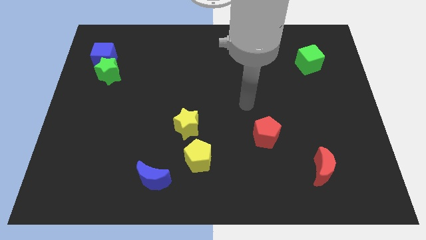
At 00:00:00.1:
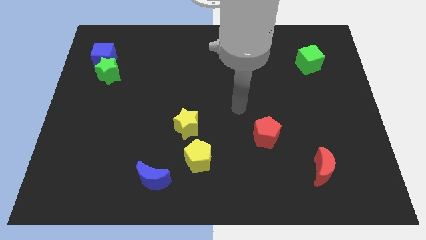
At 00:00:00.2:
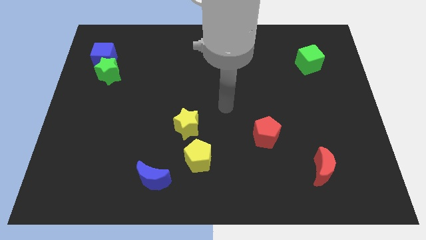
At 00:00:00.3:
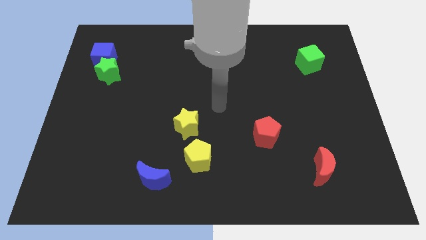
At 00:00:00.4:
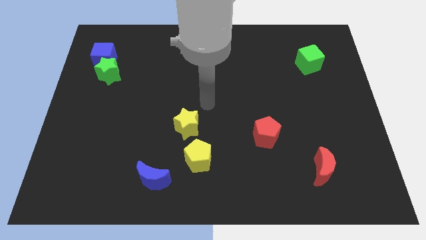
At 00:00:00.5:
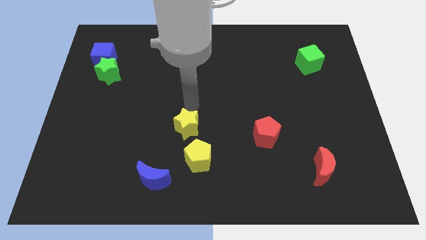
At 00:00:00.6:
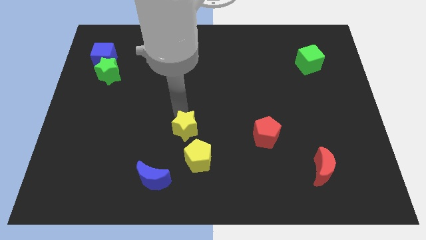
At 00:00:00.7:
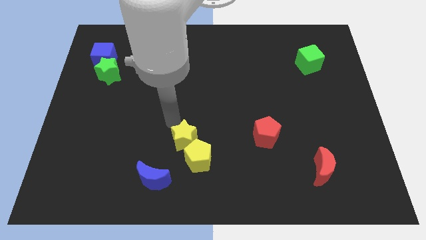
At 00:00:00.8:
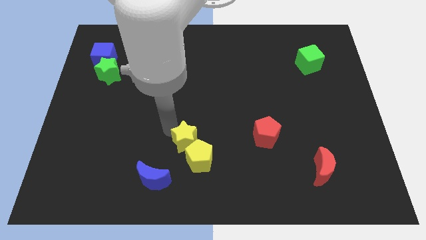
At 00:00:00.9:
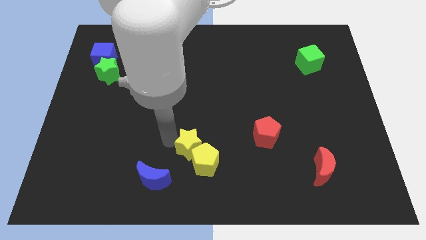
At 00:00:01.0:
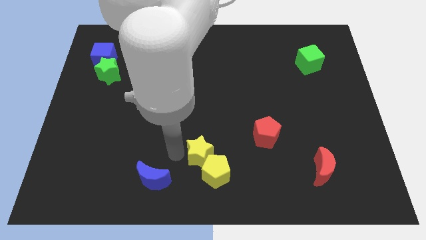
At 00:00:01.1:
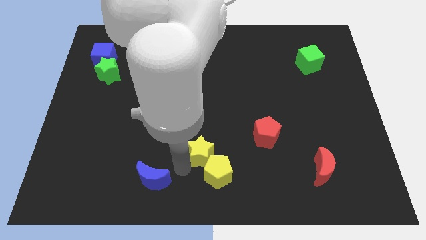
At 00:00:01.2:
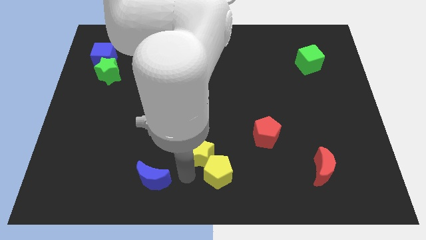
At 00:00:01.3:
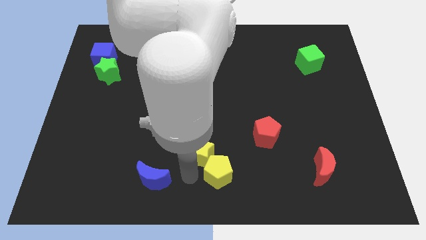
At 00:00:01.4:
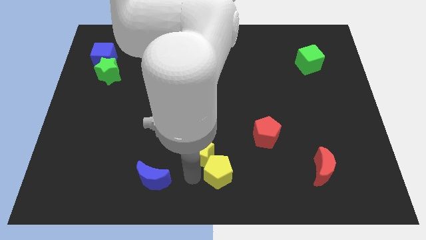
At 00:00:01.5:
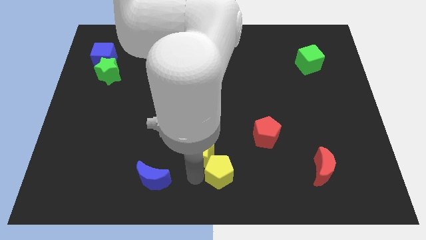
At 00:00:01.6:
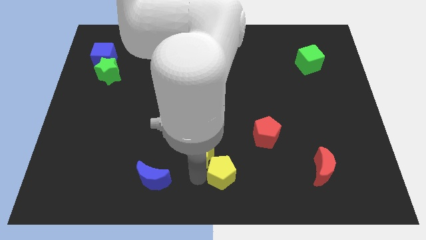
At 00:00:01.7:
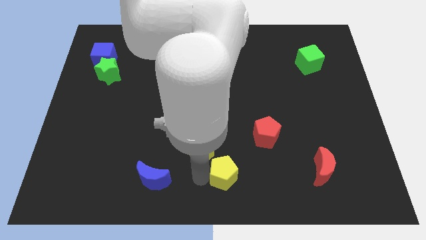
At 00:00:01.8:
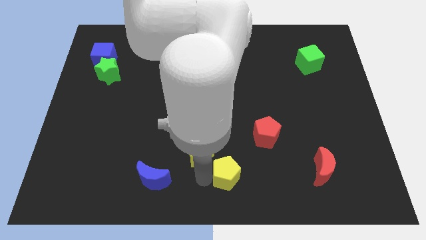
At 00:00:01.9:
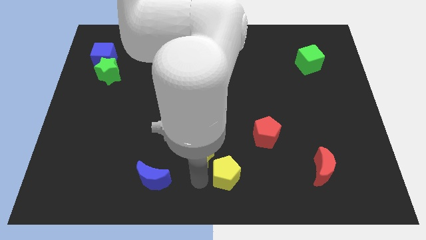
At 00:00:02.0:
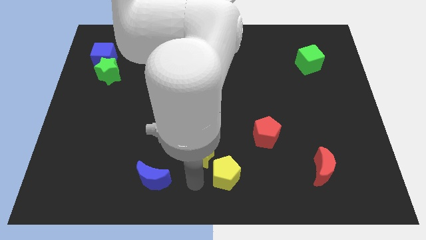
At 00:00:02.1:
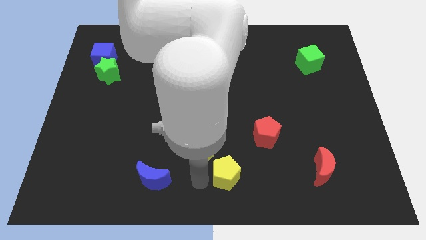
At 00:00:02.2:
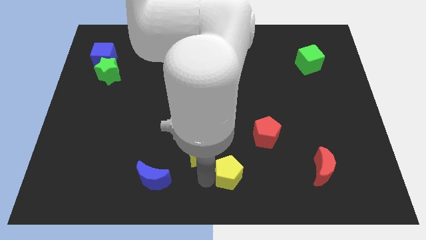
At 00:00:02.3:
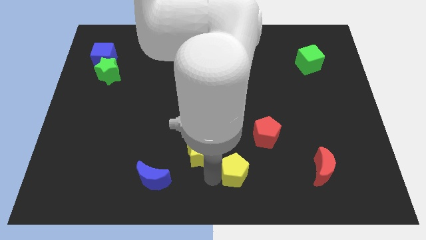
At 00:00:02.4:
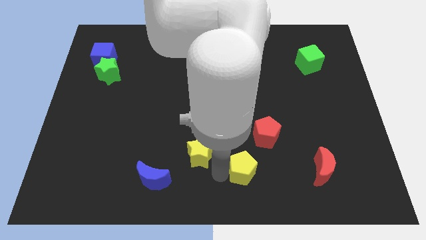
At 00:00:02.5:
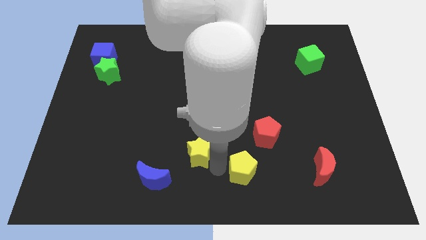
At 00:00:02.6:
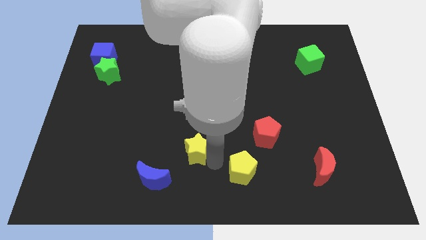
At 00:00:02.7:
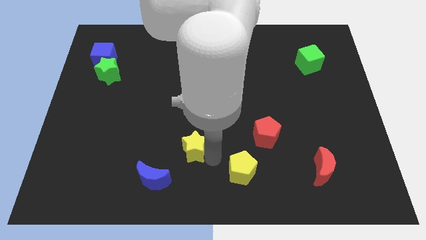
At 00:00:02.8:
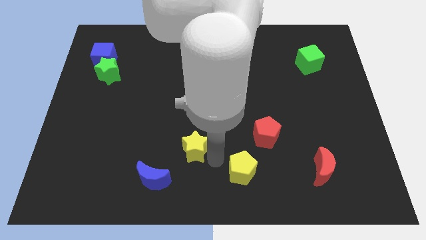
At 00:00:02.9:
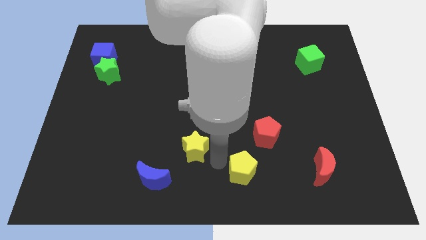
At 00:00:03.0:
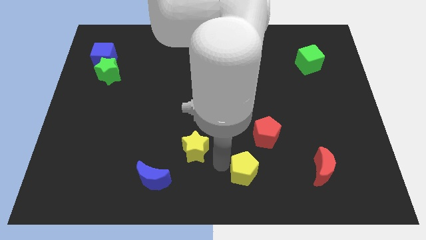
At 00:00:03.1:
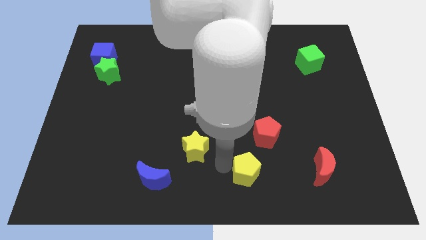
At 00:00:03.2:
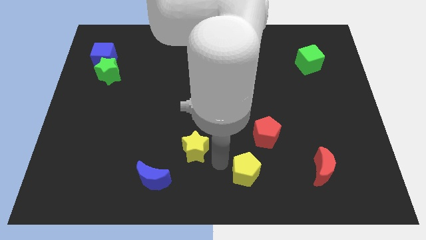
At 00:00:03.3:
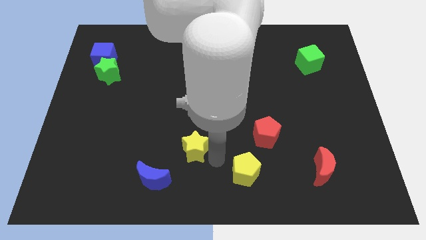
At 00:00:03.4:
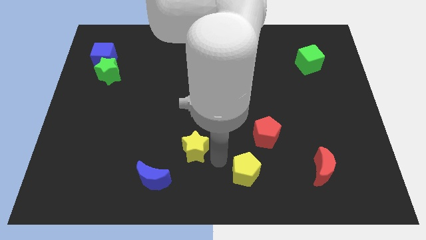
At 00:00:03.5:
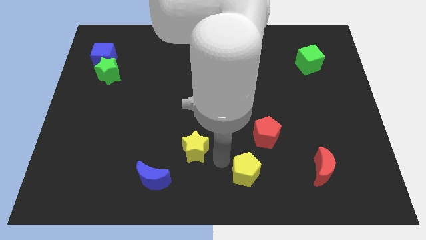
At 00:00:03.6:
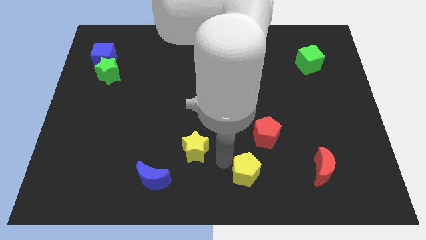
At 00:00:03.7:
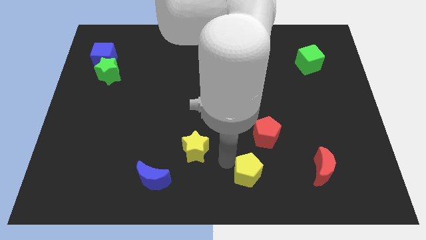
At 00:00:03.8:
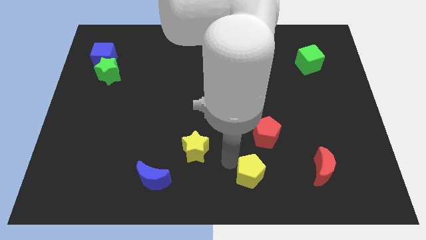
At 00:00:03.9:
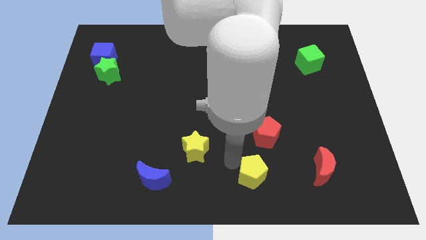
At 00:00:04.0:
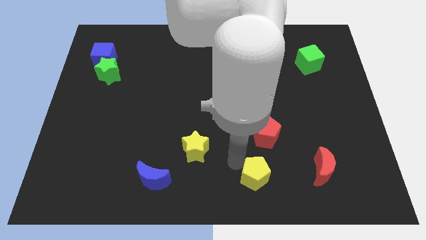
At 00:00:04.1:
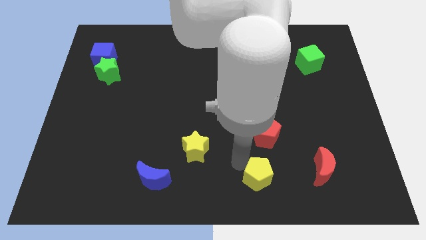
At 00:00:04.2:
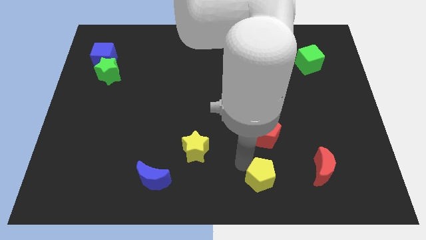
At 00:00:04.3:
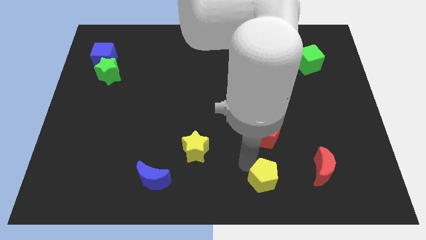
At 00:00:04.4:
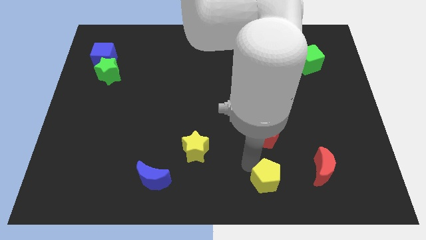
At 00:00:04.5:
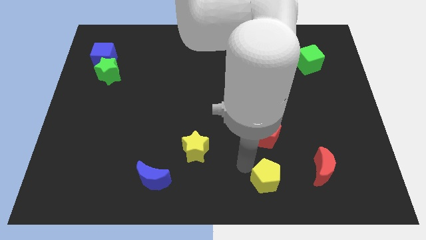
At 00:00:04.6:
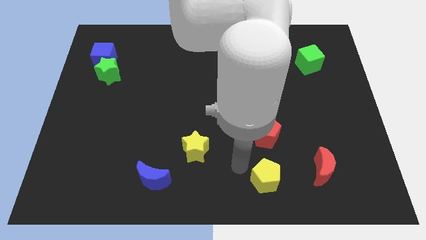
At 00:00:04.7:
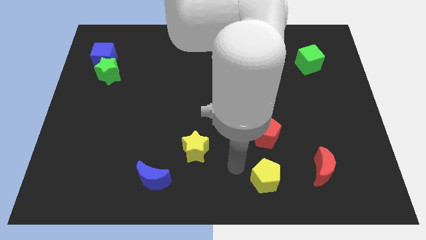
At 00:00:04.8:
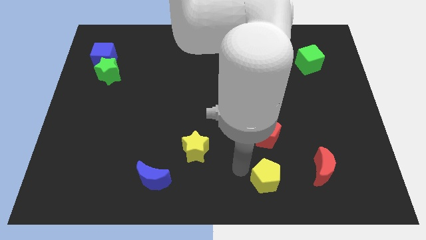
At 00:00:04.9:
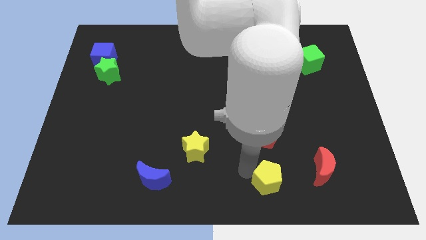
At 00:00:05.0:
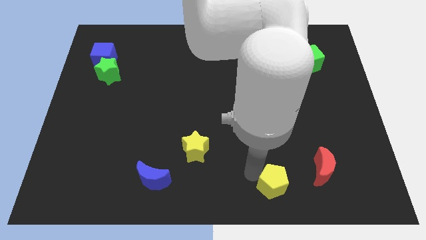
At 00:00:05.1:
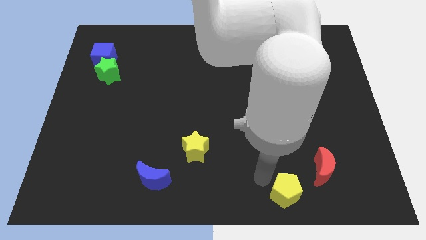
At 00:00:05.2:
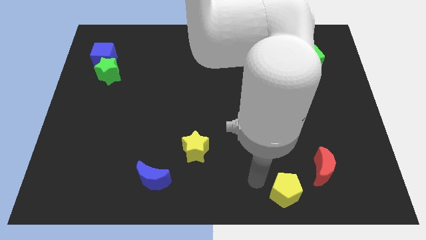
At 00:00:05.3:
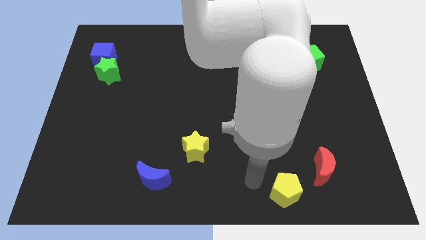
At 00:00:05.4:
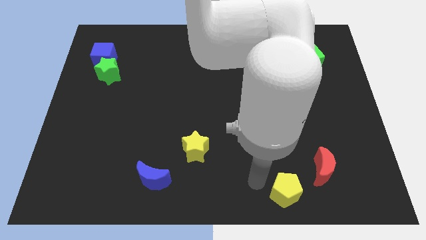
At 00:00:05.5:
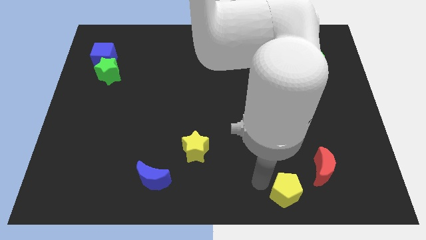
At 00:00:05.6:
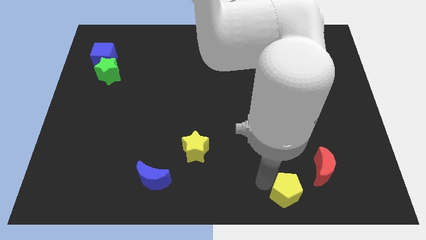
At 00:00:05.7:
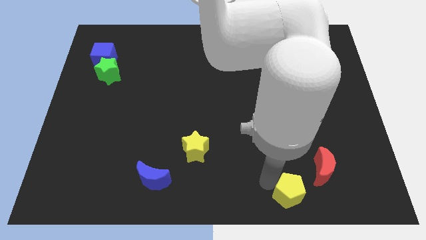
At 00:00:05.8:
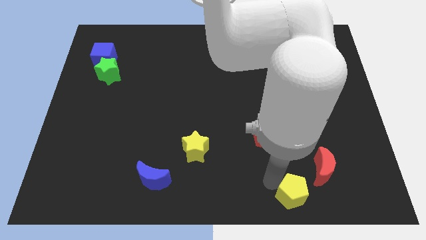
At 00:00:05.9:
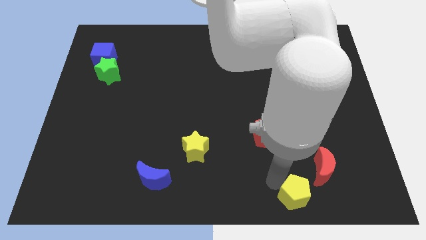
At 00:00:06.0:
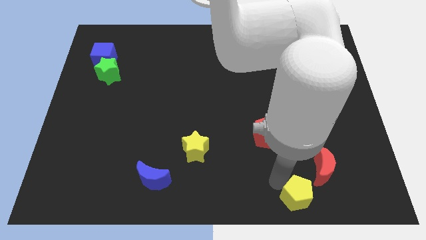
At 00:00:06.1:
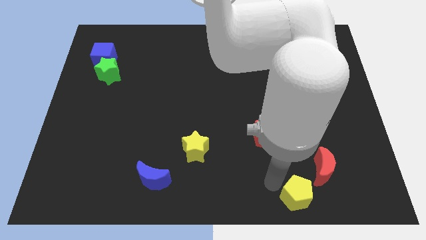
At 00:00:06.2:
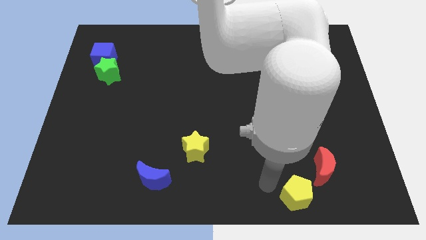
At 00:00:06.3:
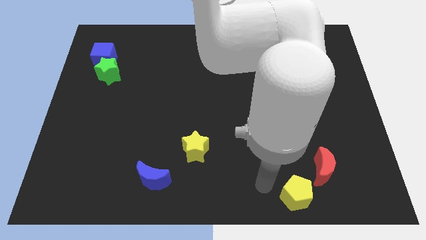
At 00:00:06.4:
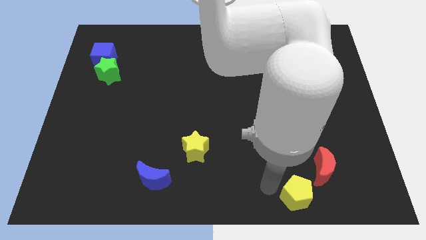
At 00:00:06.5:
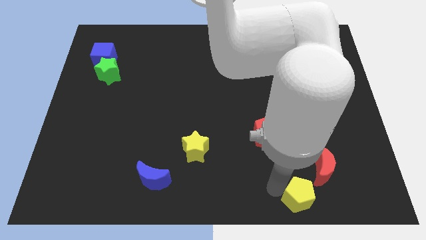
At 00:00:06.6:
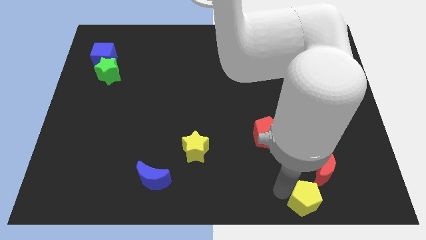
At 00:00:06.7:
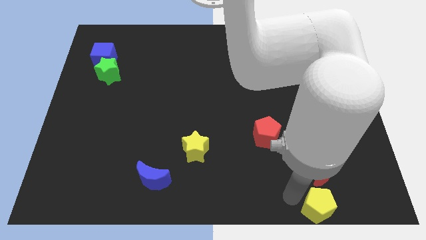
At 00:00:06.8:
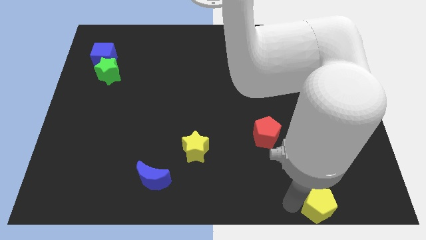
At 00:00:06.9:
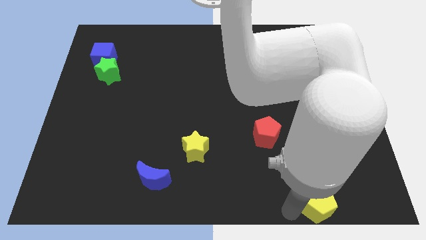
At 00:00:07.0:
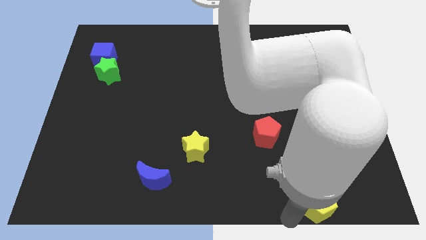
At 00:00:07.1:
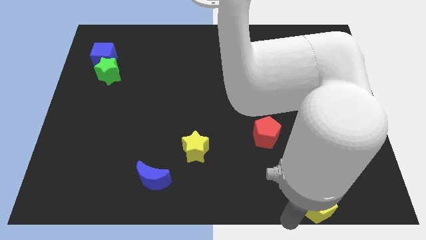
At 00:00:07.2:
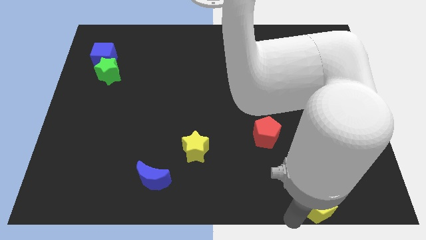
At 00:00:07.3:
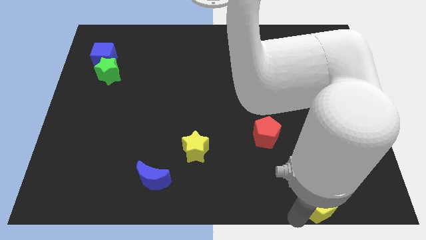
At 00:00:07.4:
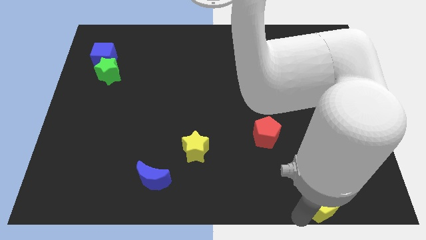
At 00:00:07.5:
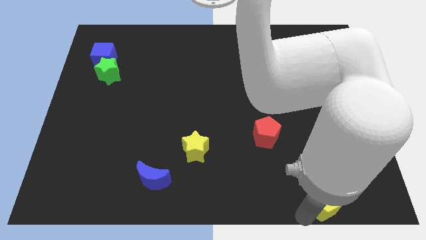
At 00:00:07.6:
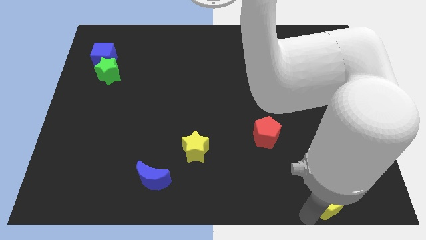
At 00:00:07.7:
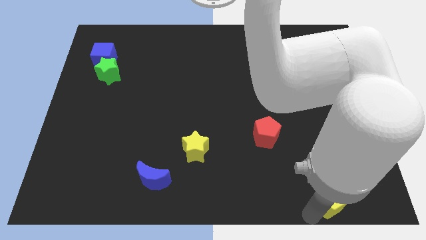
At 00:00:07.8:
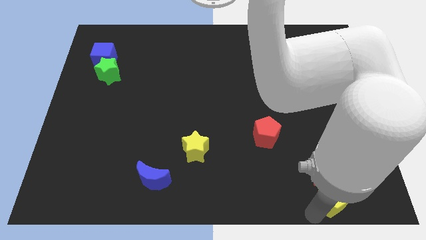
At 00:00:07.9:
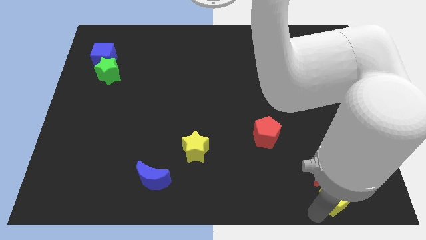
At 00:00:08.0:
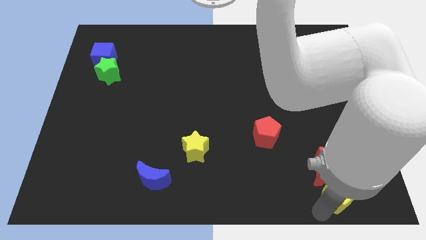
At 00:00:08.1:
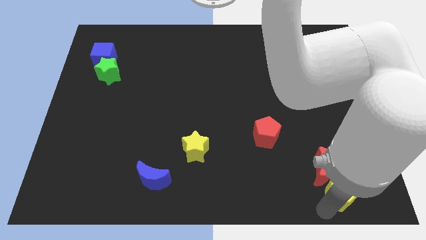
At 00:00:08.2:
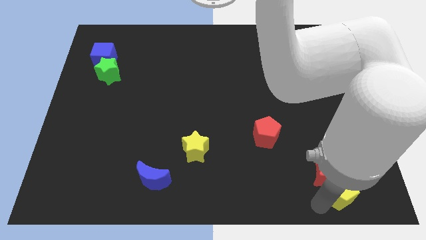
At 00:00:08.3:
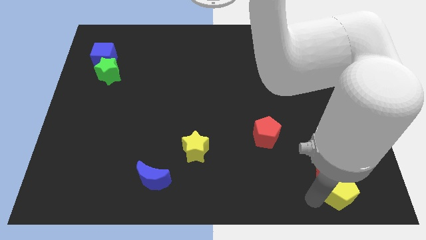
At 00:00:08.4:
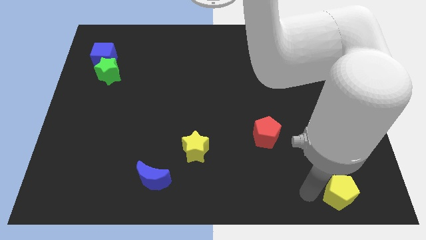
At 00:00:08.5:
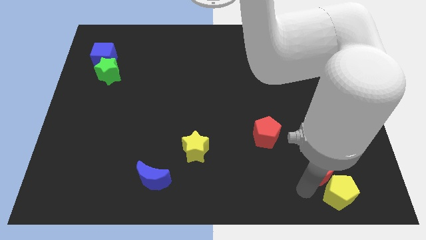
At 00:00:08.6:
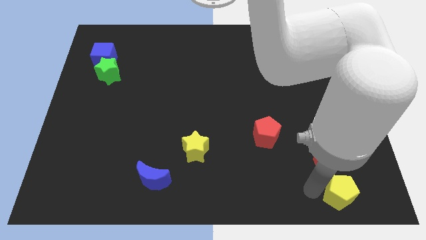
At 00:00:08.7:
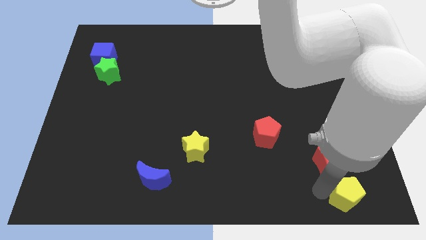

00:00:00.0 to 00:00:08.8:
put the yellow pentagon to the bottom right corner
